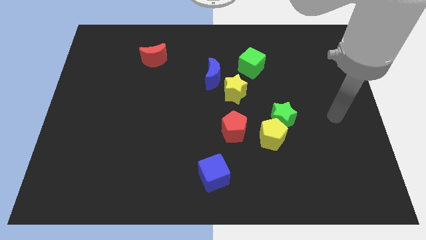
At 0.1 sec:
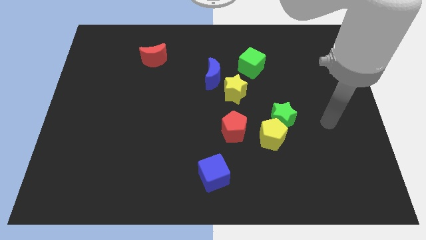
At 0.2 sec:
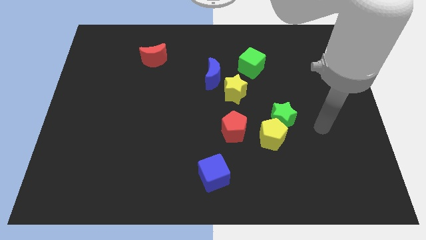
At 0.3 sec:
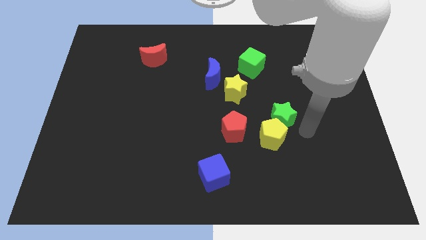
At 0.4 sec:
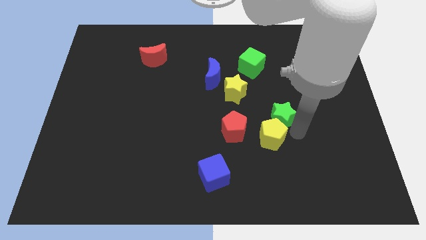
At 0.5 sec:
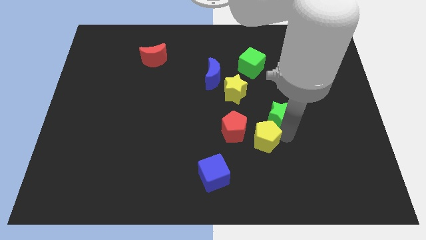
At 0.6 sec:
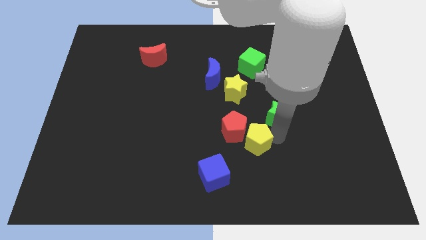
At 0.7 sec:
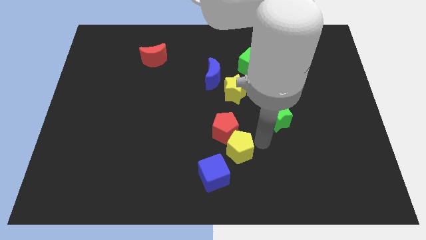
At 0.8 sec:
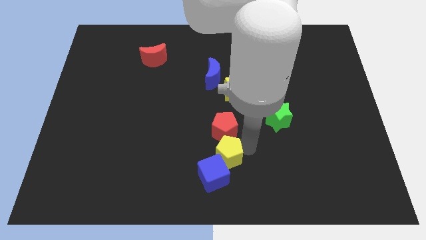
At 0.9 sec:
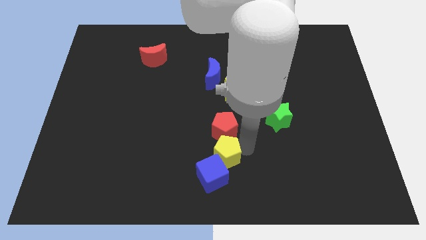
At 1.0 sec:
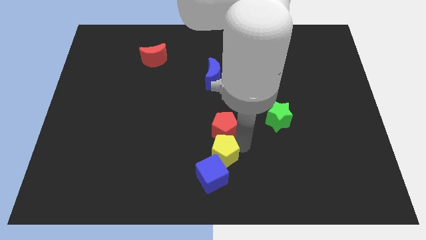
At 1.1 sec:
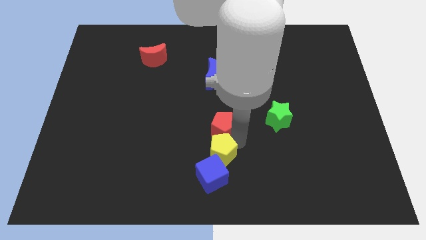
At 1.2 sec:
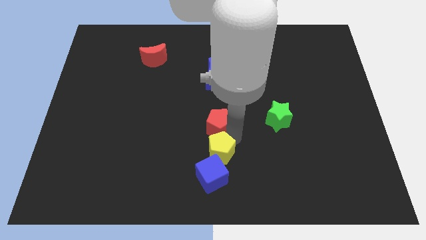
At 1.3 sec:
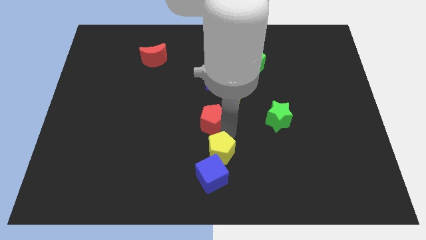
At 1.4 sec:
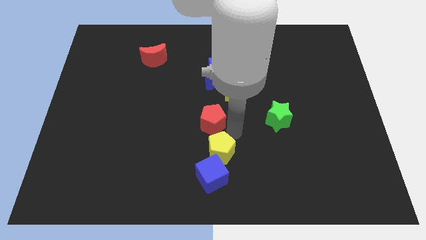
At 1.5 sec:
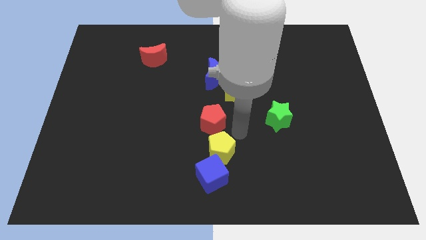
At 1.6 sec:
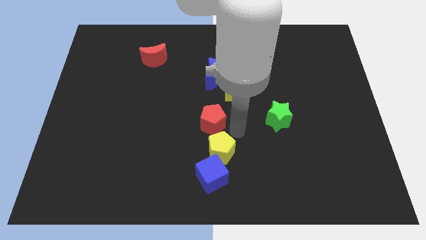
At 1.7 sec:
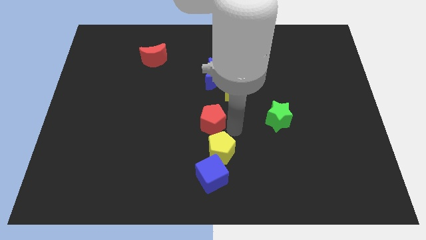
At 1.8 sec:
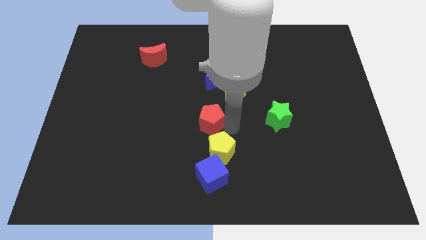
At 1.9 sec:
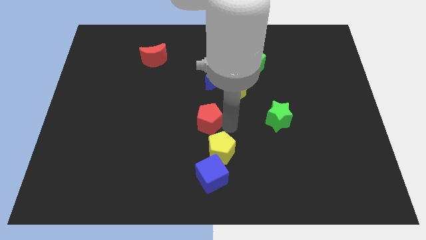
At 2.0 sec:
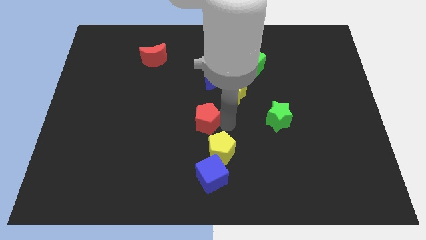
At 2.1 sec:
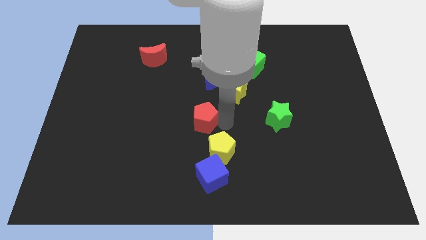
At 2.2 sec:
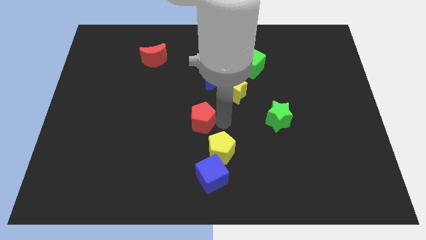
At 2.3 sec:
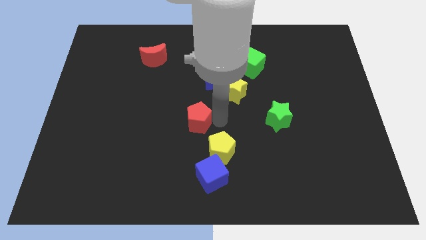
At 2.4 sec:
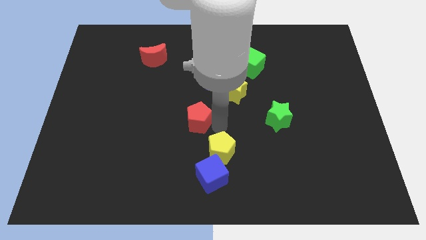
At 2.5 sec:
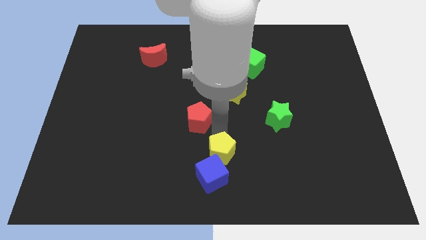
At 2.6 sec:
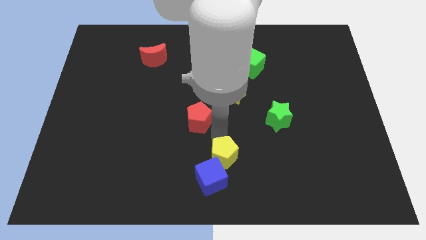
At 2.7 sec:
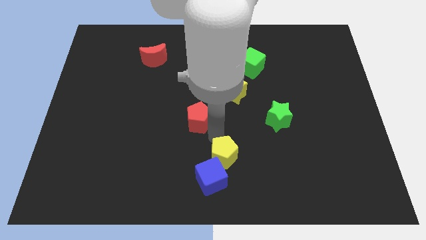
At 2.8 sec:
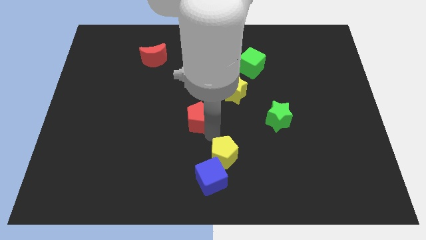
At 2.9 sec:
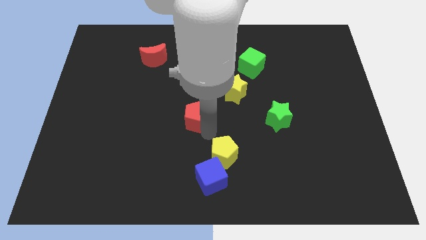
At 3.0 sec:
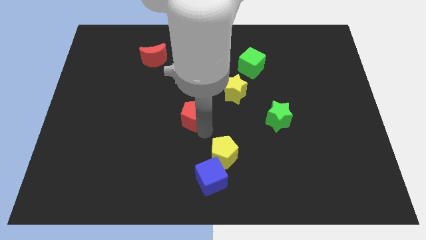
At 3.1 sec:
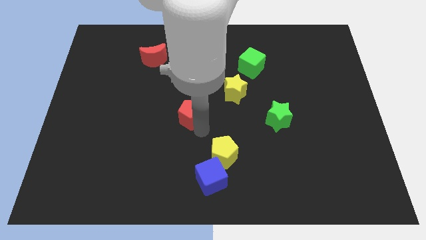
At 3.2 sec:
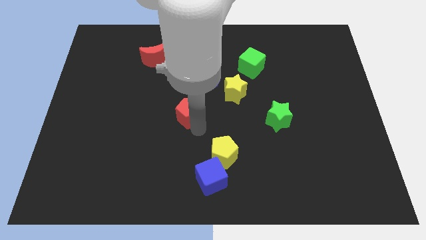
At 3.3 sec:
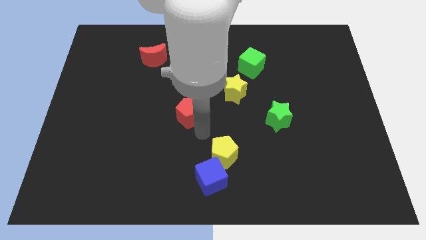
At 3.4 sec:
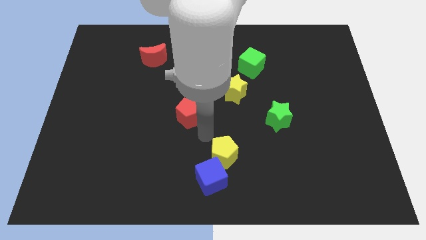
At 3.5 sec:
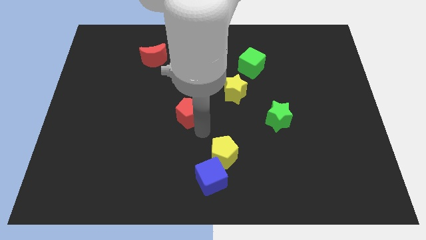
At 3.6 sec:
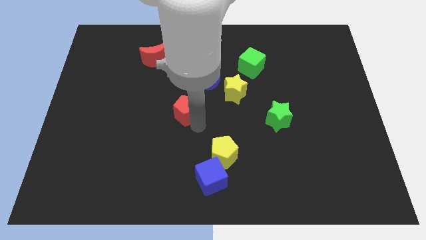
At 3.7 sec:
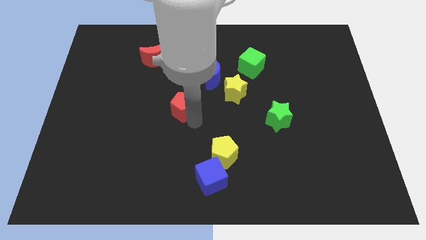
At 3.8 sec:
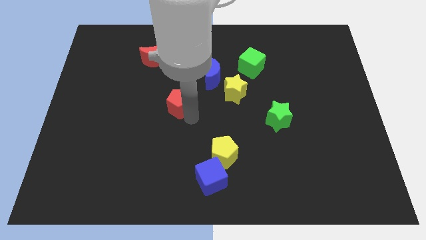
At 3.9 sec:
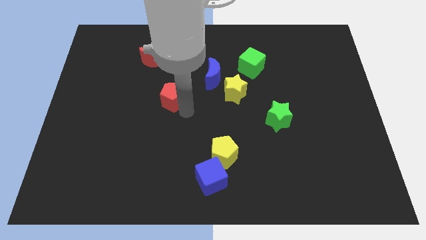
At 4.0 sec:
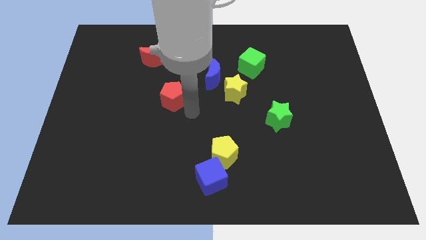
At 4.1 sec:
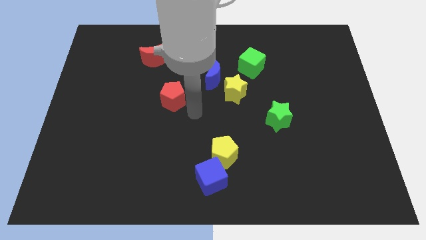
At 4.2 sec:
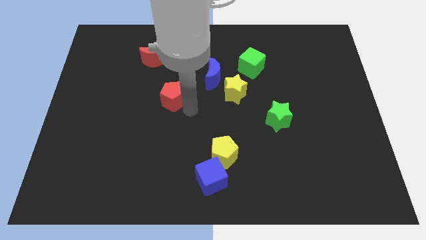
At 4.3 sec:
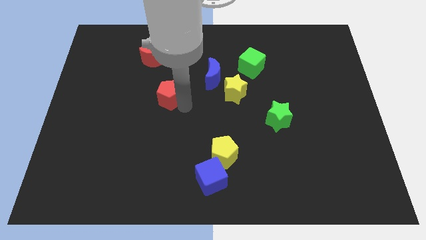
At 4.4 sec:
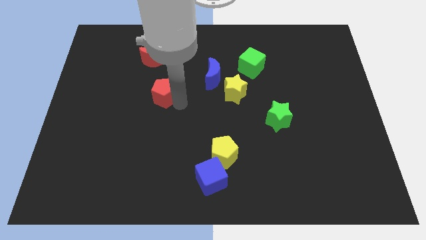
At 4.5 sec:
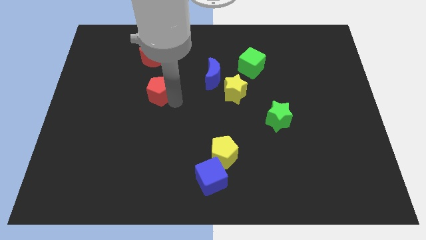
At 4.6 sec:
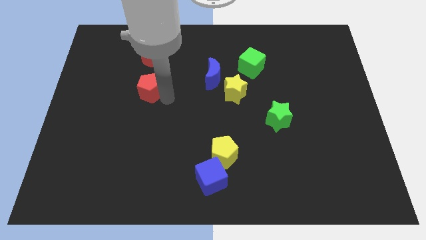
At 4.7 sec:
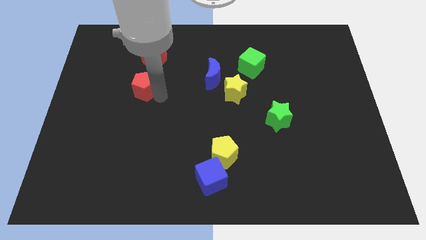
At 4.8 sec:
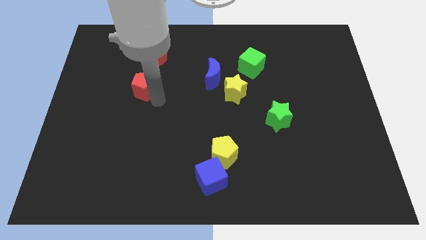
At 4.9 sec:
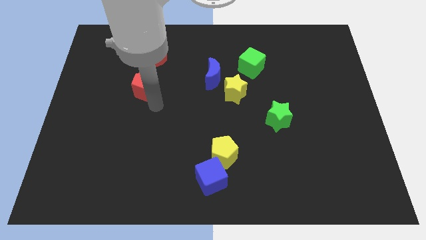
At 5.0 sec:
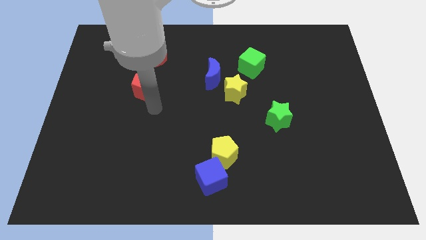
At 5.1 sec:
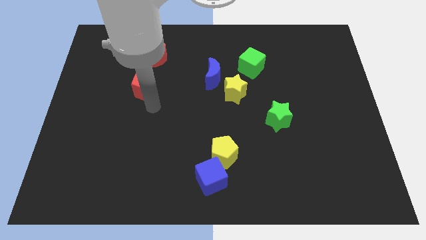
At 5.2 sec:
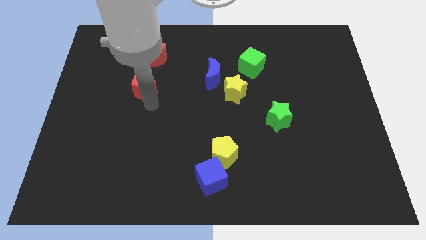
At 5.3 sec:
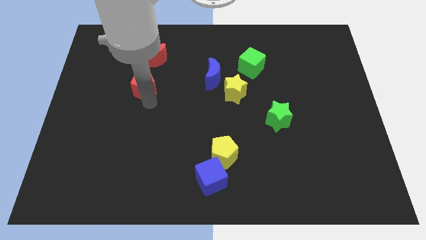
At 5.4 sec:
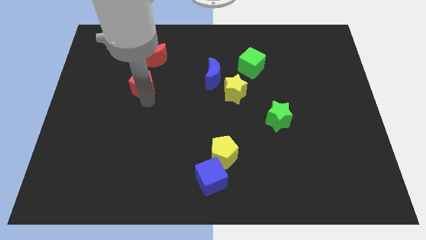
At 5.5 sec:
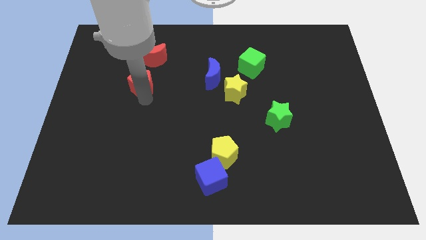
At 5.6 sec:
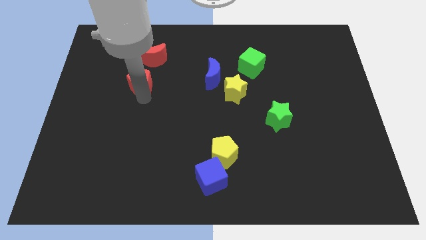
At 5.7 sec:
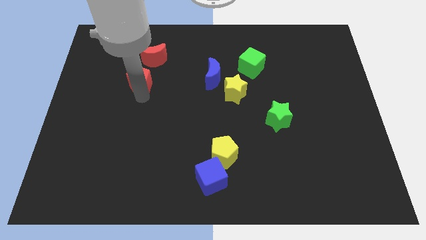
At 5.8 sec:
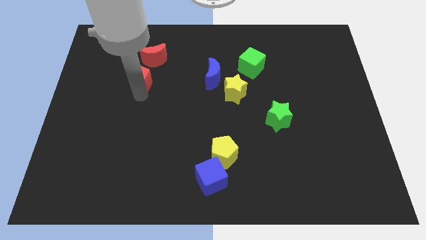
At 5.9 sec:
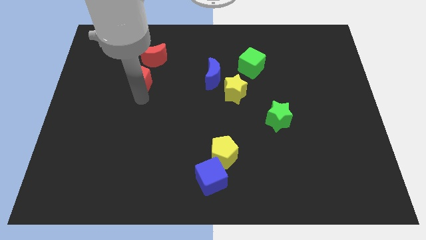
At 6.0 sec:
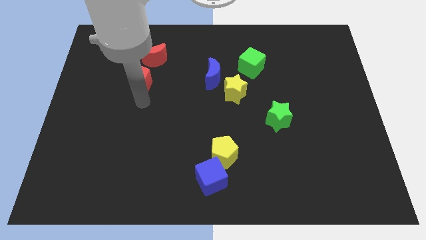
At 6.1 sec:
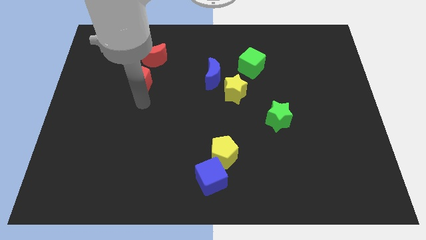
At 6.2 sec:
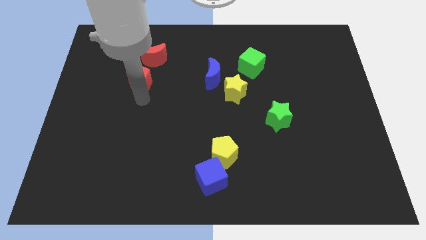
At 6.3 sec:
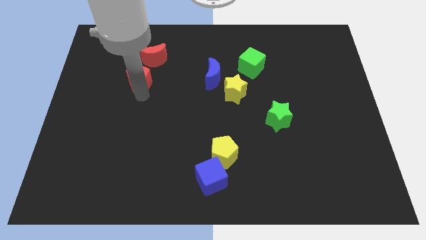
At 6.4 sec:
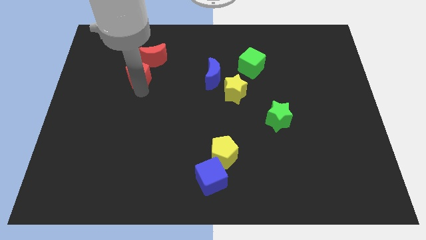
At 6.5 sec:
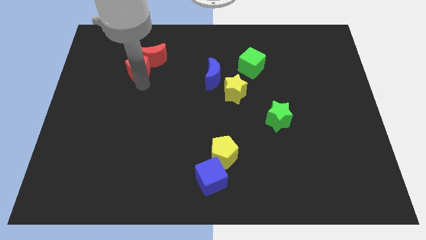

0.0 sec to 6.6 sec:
put the red pentagon to the left side of the red moon

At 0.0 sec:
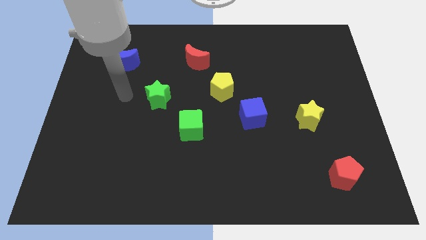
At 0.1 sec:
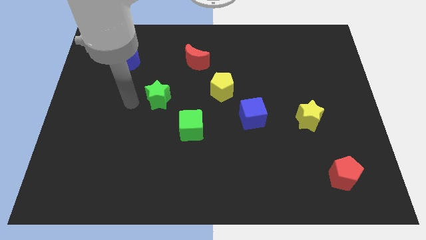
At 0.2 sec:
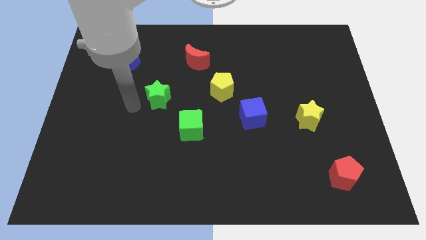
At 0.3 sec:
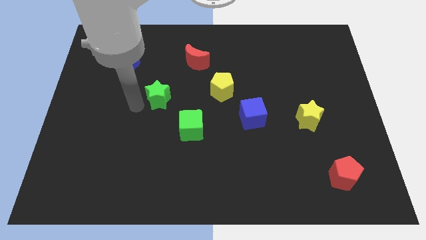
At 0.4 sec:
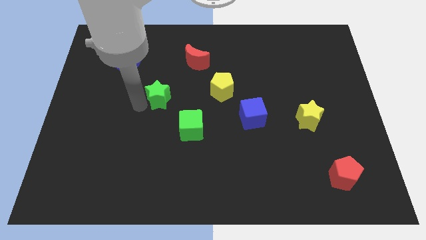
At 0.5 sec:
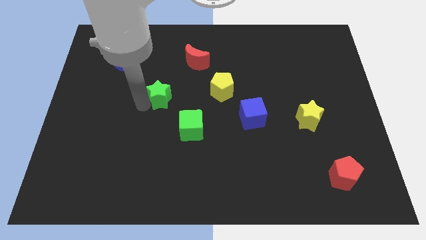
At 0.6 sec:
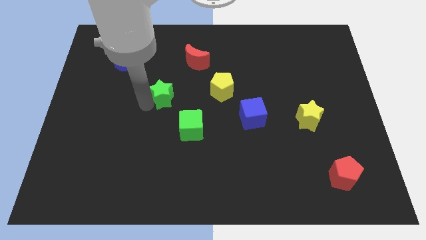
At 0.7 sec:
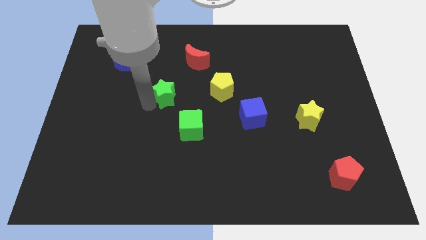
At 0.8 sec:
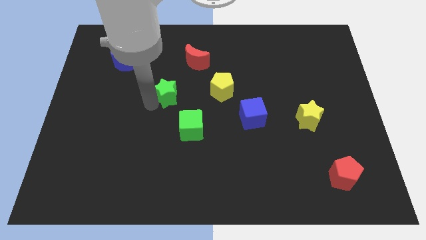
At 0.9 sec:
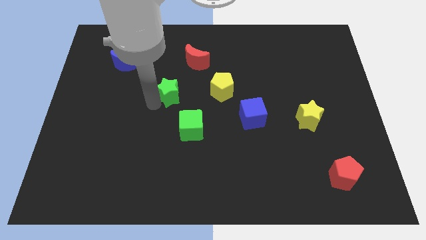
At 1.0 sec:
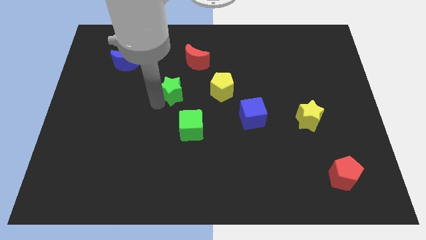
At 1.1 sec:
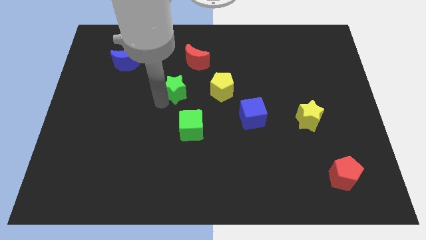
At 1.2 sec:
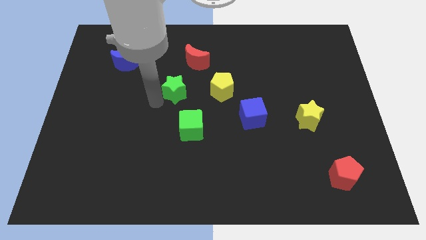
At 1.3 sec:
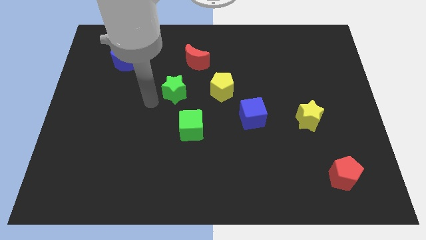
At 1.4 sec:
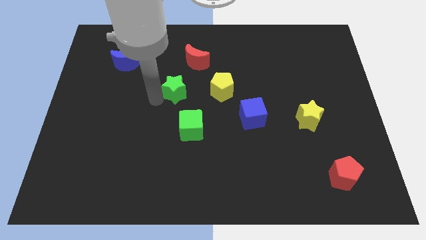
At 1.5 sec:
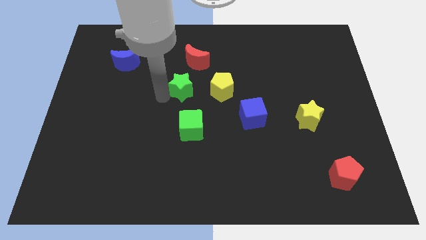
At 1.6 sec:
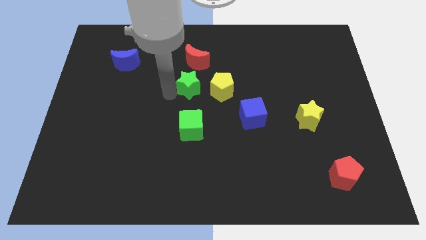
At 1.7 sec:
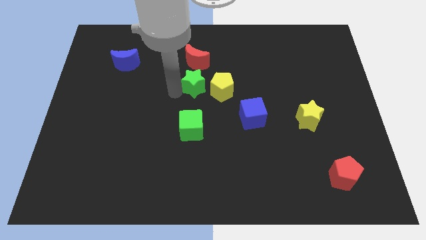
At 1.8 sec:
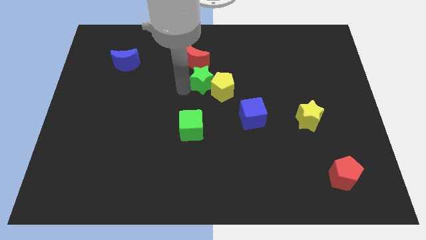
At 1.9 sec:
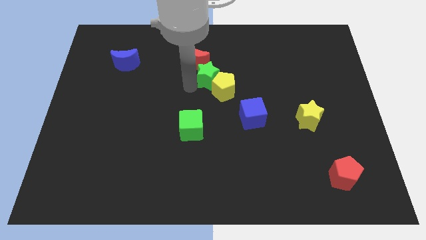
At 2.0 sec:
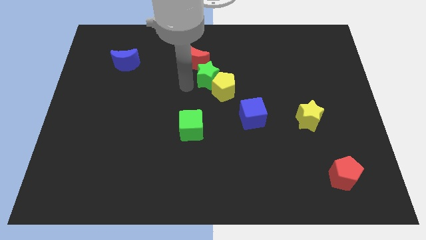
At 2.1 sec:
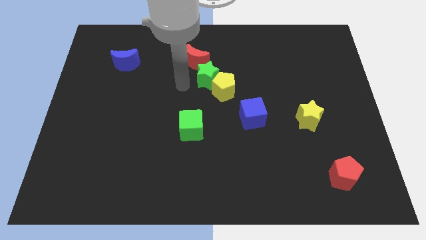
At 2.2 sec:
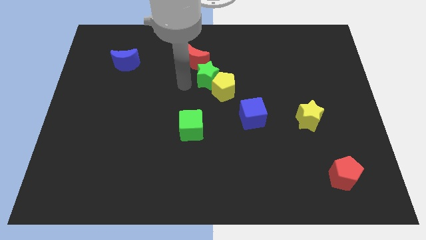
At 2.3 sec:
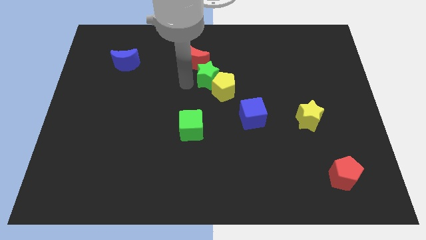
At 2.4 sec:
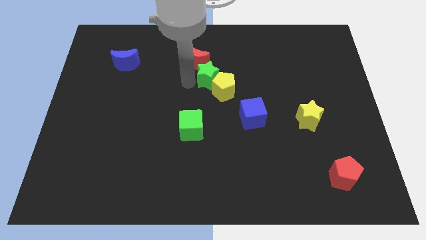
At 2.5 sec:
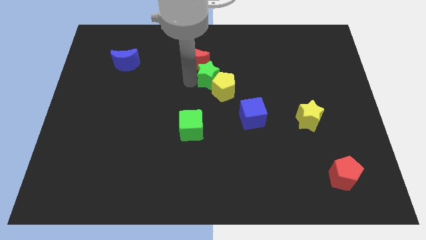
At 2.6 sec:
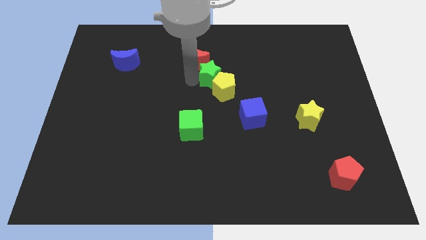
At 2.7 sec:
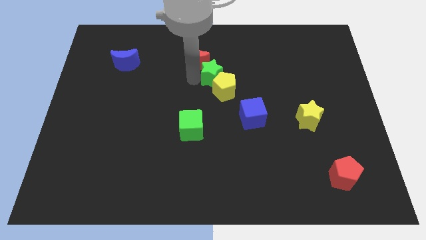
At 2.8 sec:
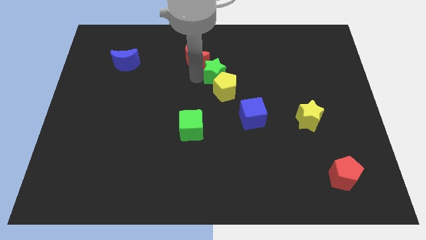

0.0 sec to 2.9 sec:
put the green star to the right side of the red moon
